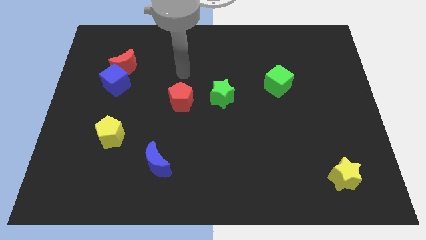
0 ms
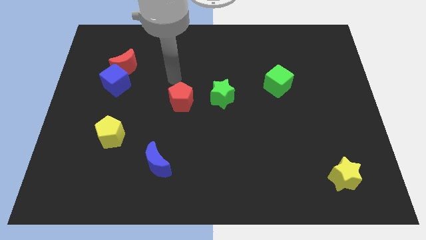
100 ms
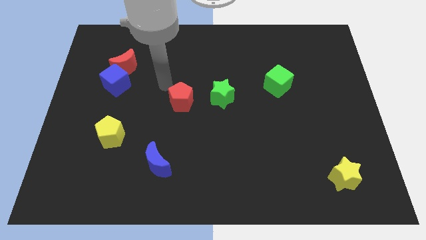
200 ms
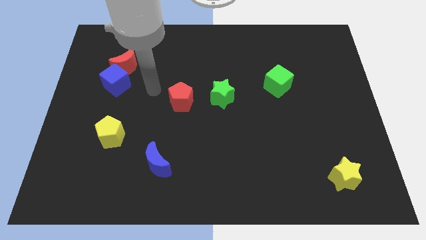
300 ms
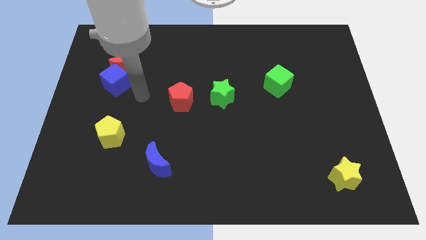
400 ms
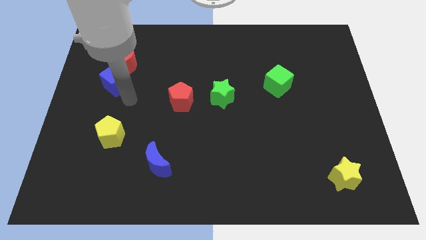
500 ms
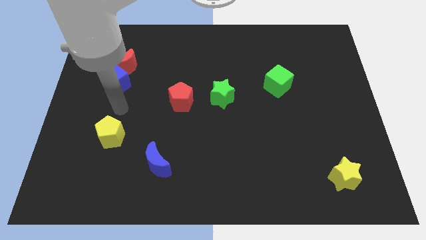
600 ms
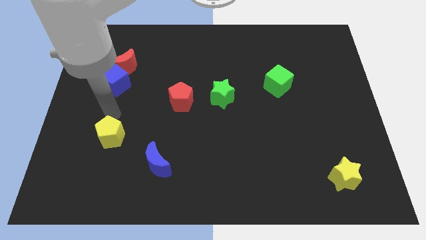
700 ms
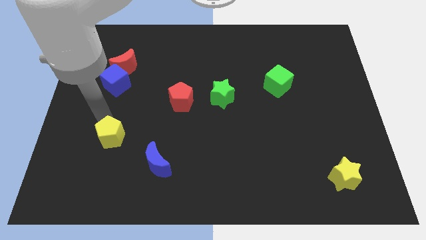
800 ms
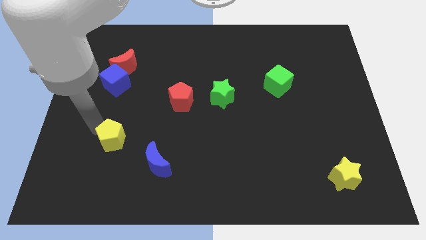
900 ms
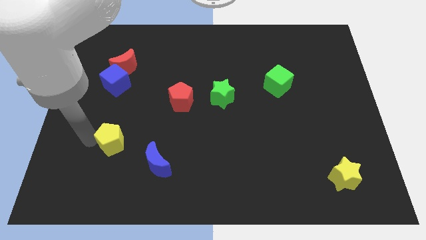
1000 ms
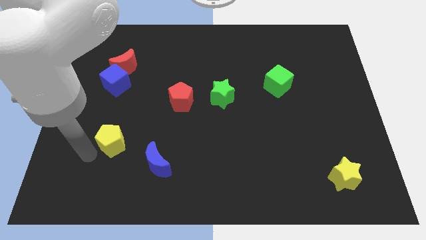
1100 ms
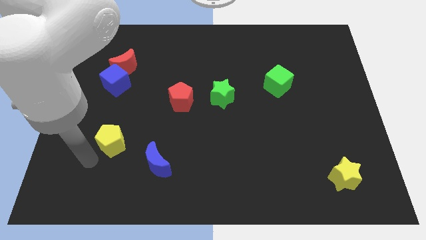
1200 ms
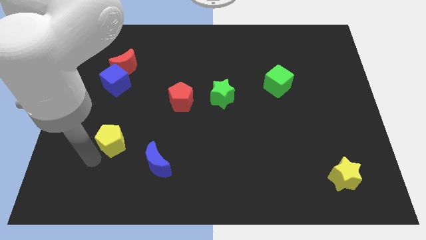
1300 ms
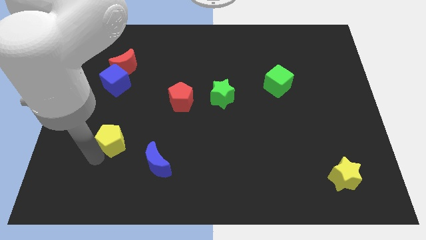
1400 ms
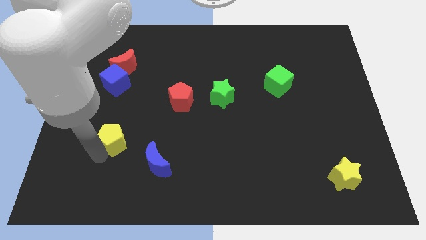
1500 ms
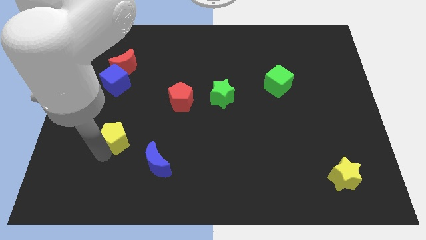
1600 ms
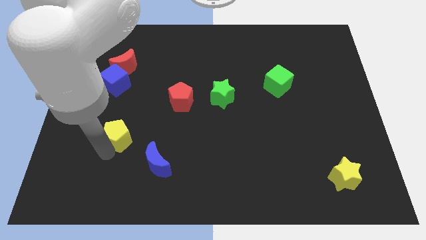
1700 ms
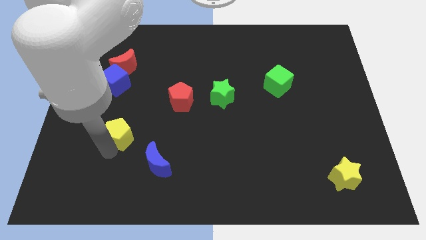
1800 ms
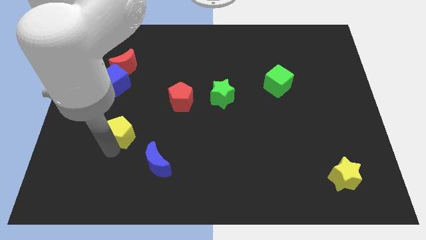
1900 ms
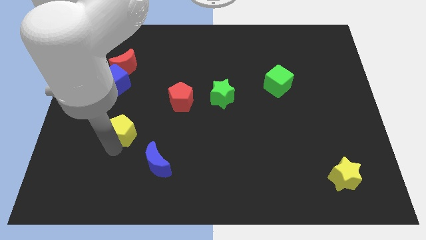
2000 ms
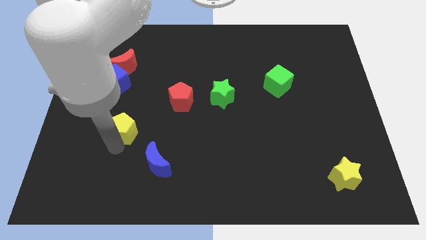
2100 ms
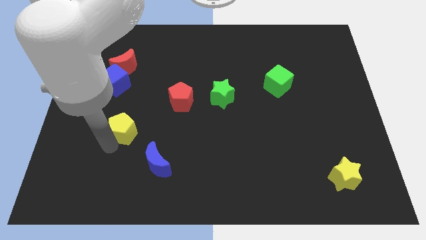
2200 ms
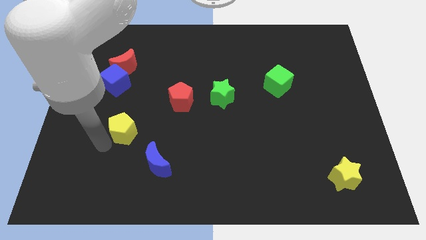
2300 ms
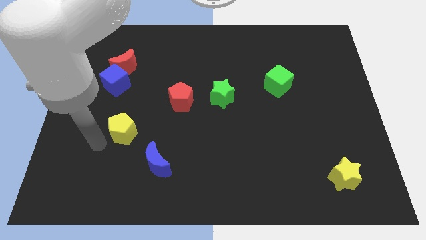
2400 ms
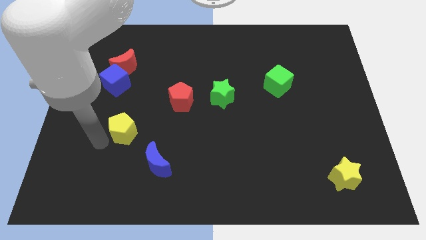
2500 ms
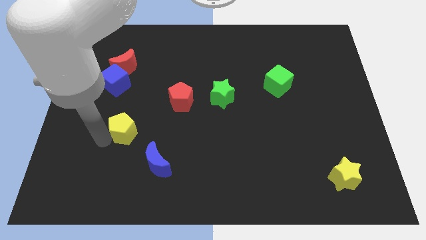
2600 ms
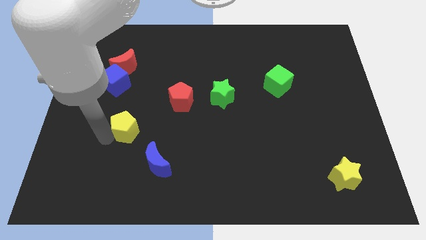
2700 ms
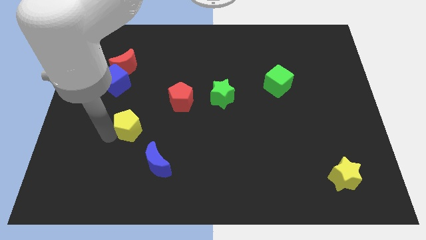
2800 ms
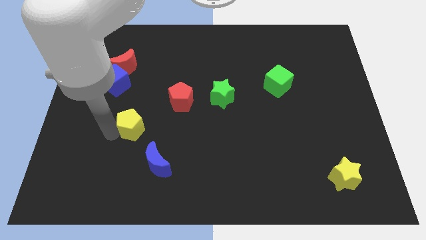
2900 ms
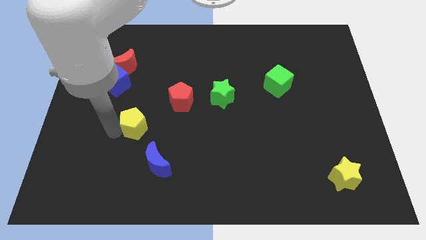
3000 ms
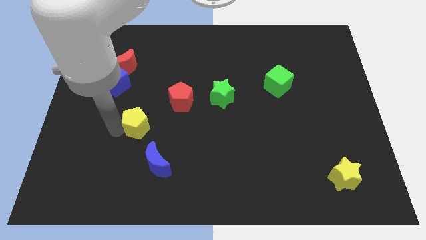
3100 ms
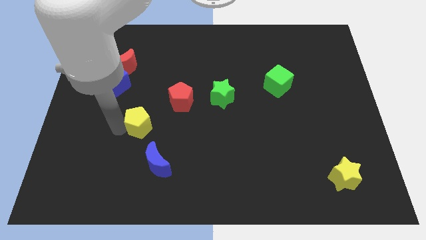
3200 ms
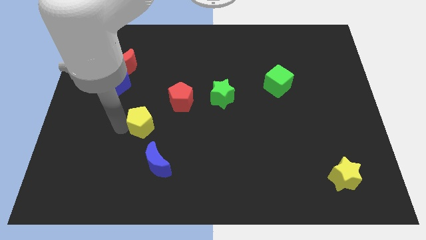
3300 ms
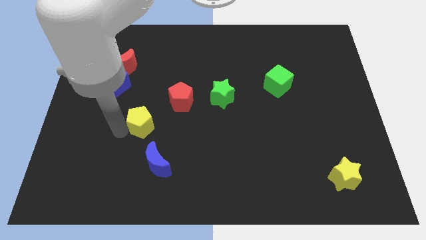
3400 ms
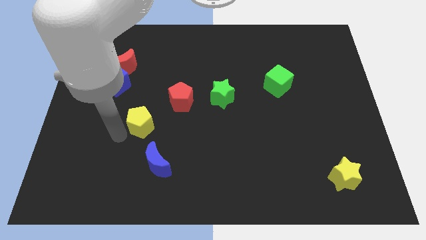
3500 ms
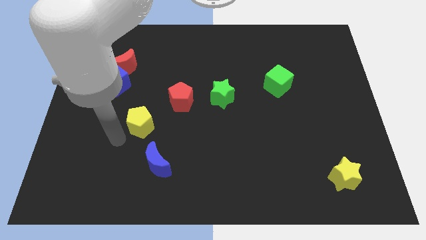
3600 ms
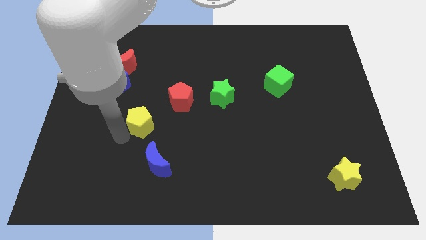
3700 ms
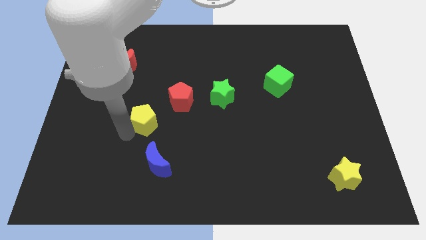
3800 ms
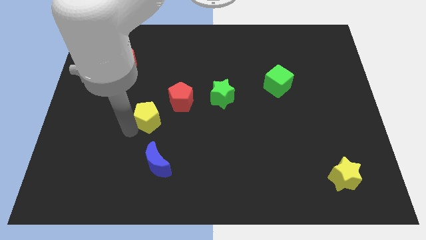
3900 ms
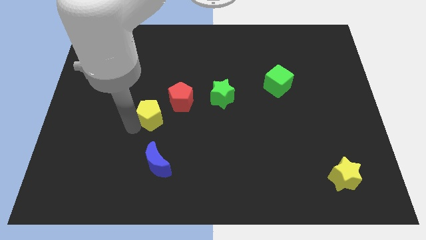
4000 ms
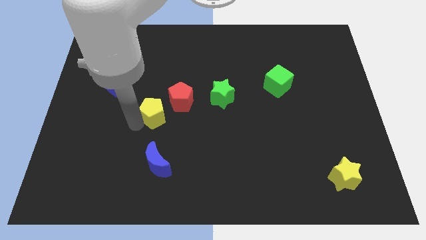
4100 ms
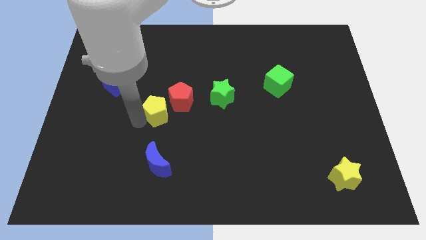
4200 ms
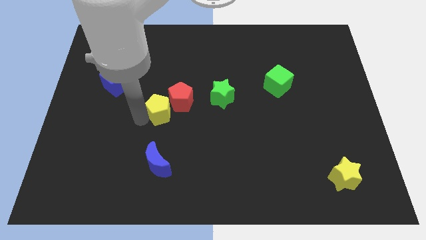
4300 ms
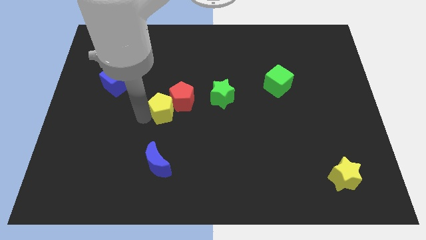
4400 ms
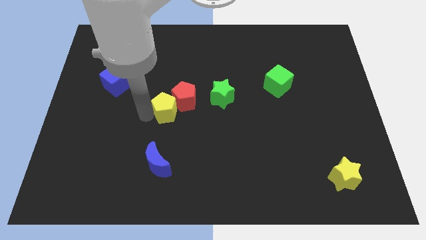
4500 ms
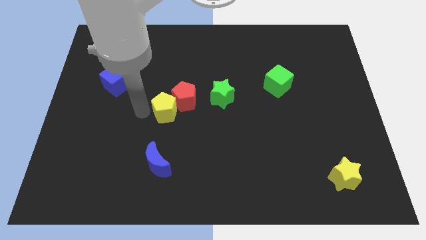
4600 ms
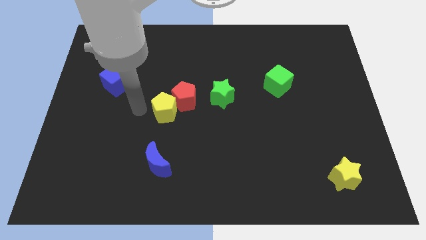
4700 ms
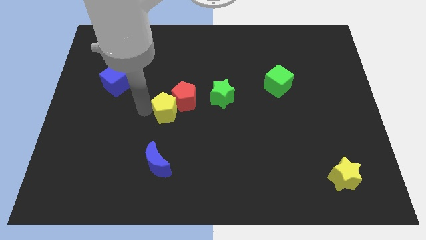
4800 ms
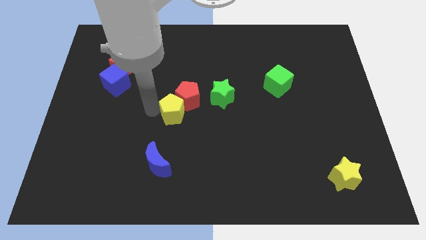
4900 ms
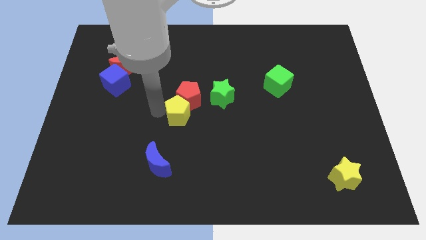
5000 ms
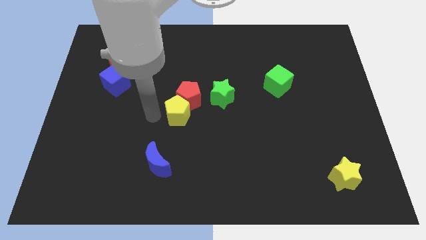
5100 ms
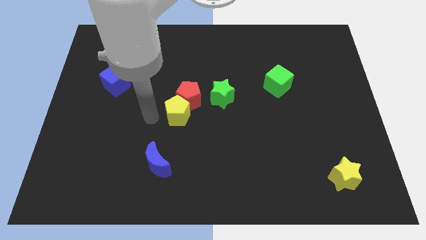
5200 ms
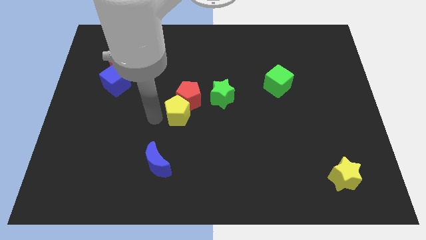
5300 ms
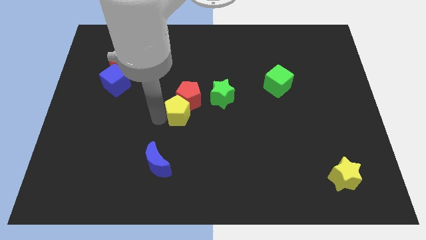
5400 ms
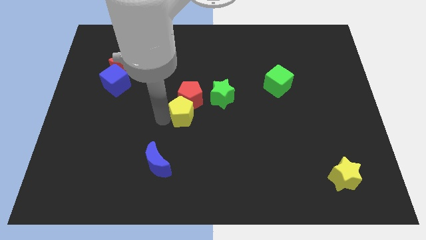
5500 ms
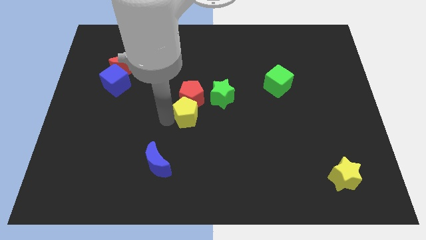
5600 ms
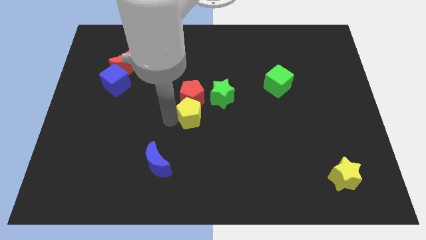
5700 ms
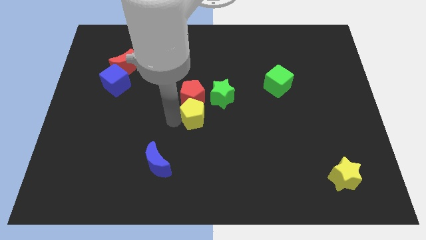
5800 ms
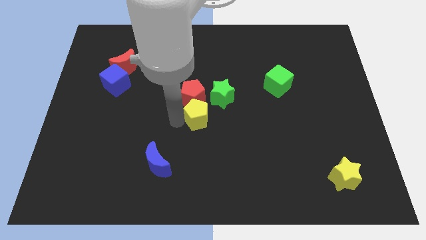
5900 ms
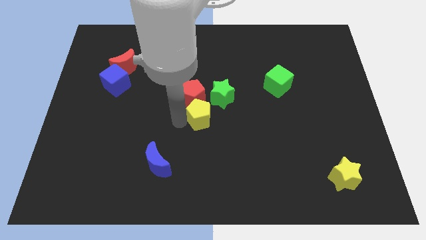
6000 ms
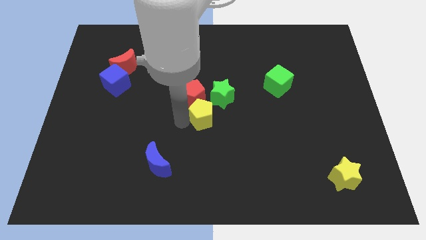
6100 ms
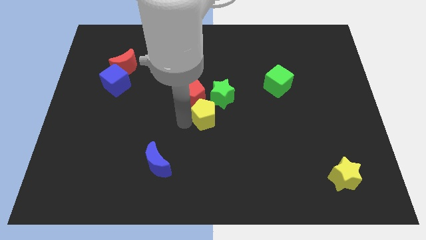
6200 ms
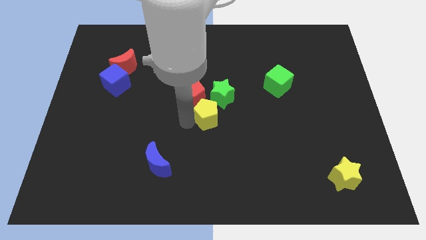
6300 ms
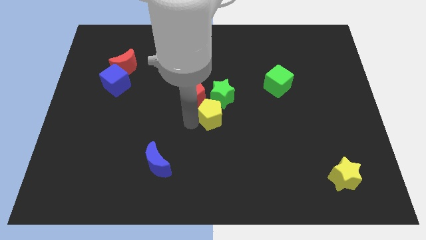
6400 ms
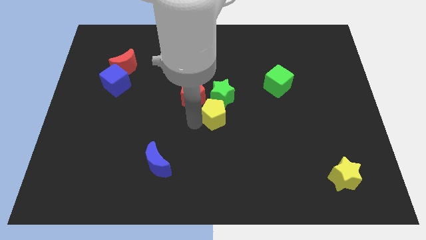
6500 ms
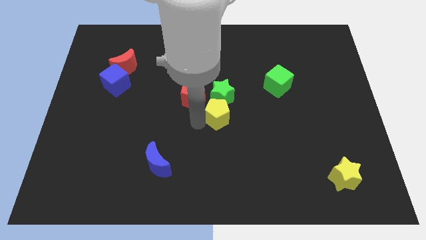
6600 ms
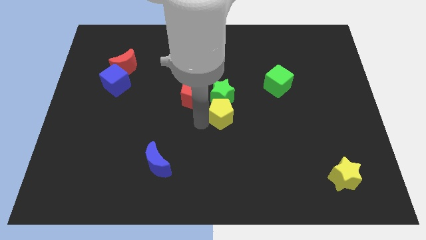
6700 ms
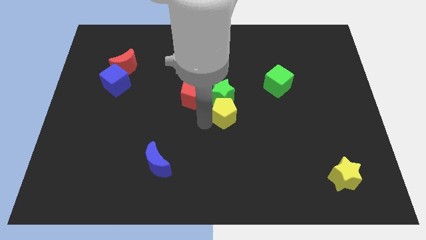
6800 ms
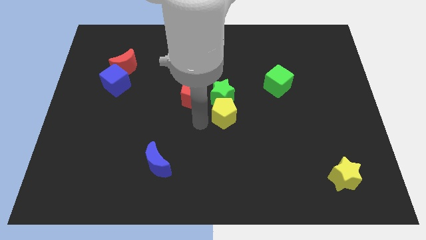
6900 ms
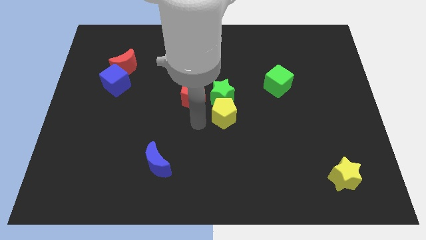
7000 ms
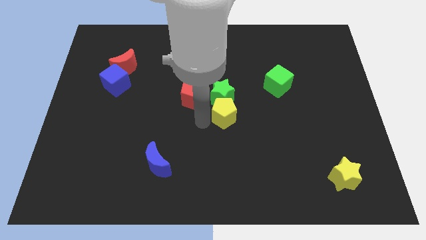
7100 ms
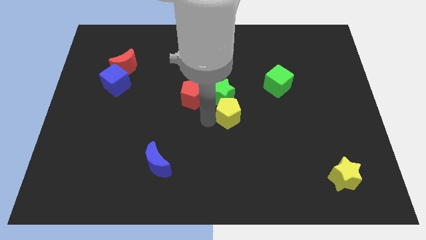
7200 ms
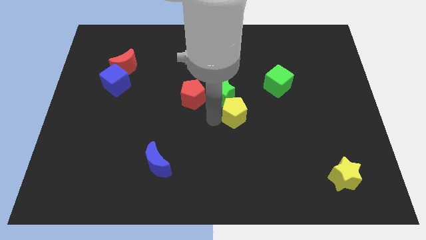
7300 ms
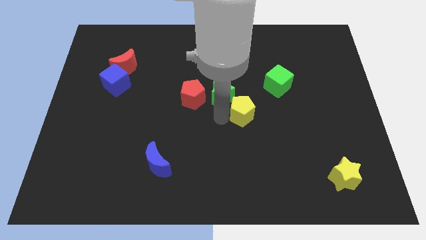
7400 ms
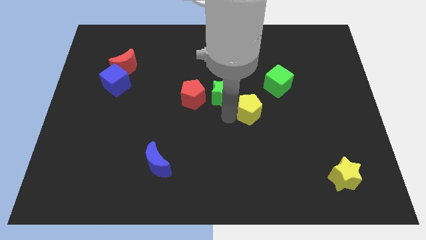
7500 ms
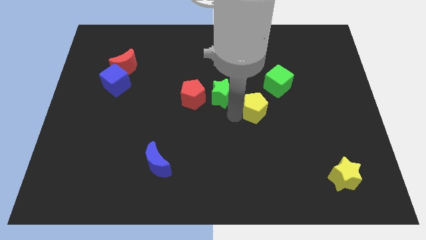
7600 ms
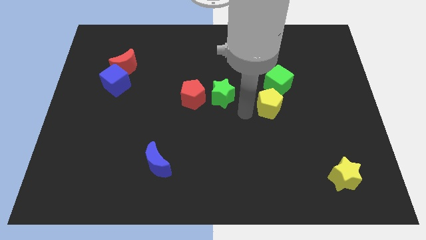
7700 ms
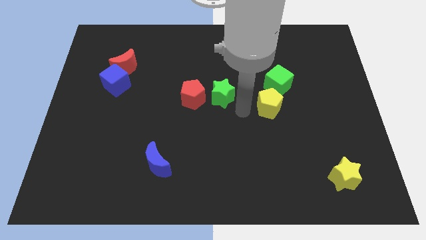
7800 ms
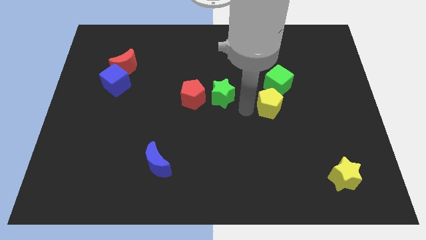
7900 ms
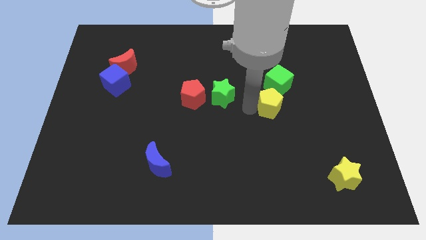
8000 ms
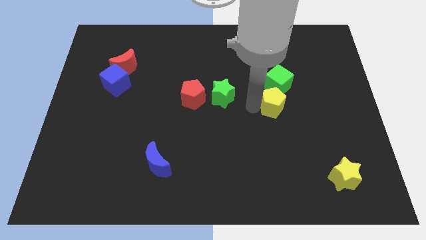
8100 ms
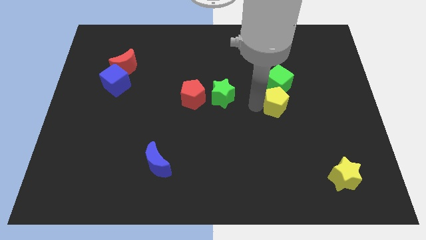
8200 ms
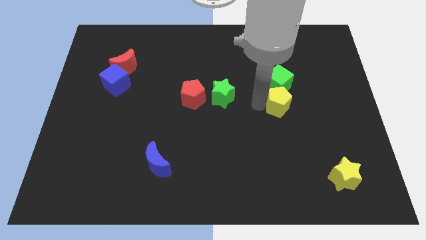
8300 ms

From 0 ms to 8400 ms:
slide the yellow pentagon to the bottom right of the green cube
